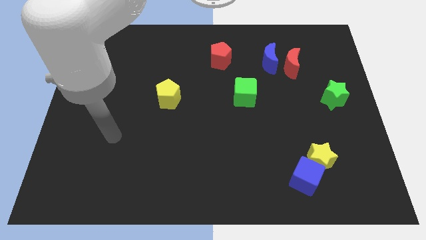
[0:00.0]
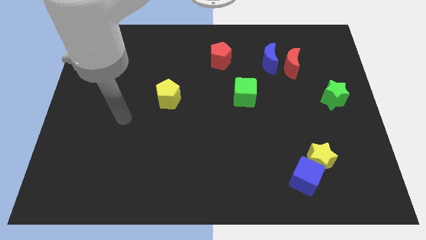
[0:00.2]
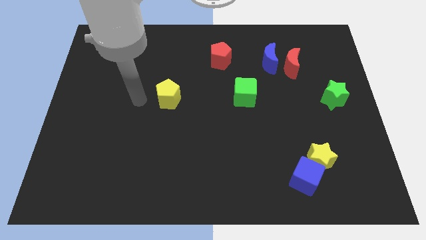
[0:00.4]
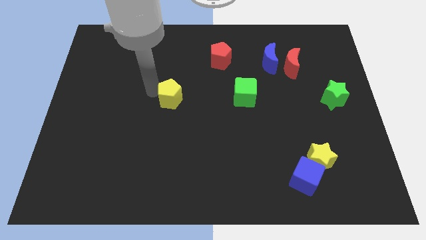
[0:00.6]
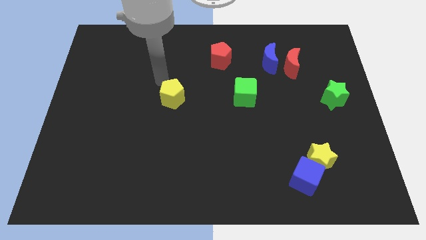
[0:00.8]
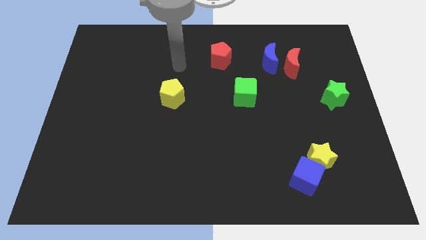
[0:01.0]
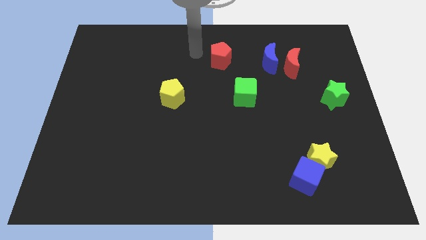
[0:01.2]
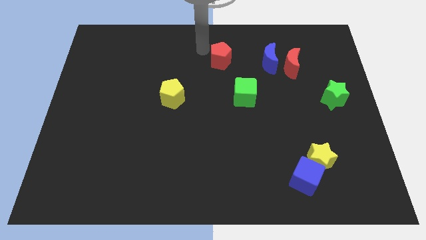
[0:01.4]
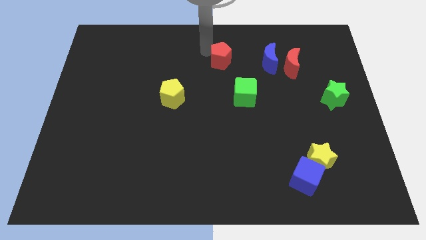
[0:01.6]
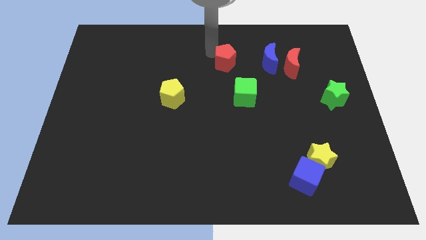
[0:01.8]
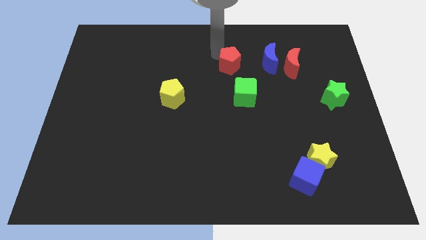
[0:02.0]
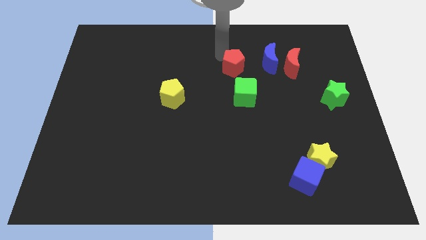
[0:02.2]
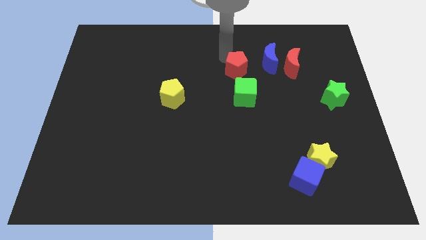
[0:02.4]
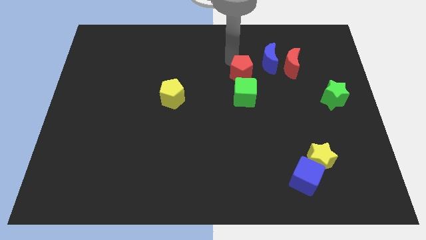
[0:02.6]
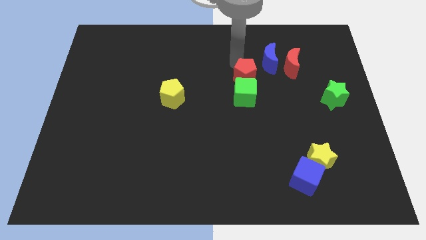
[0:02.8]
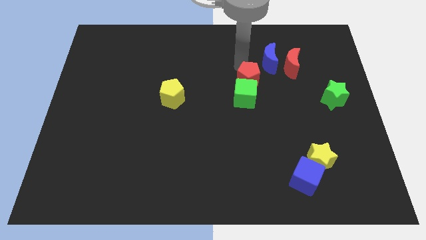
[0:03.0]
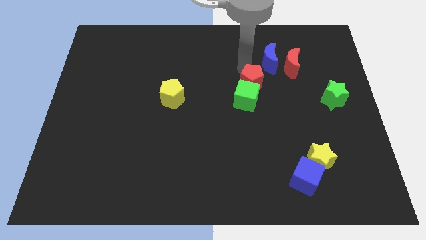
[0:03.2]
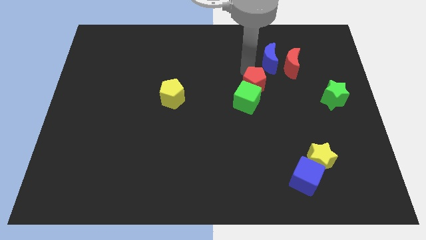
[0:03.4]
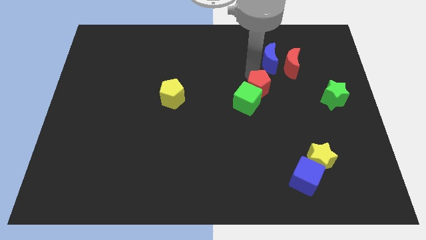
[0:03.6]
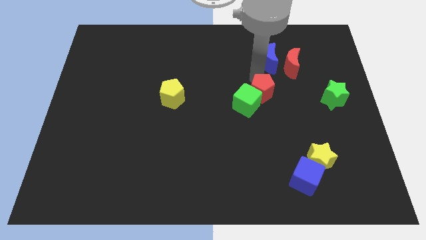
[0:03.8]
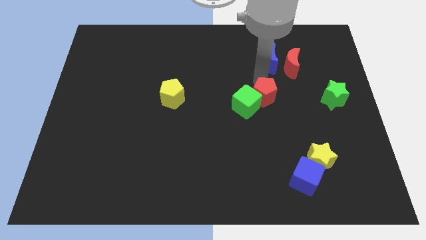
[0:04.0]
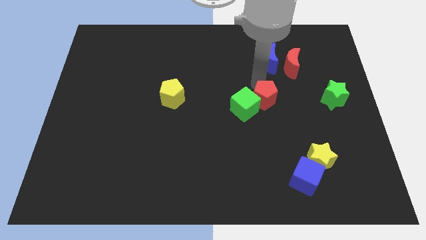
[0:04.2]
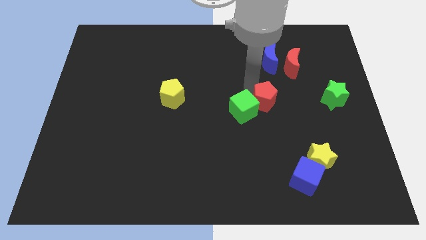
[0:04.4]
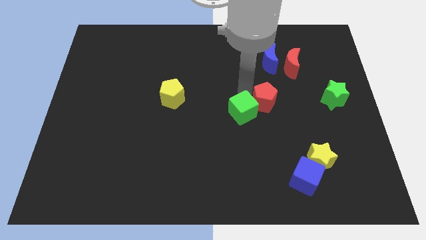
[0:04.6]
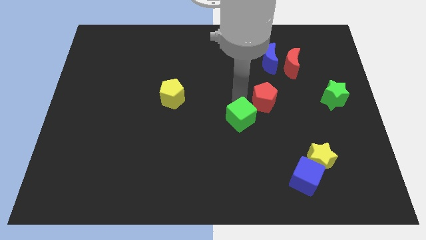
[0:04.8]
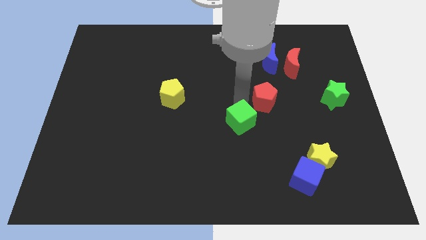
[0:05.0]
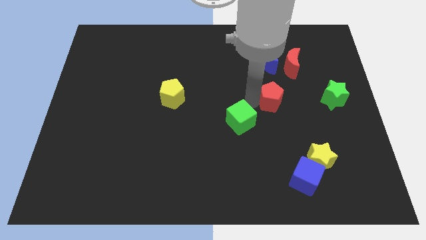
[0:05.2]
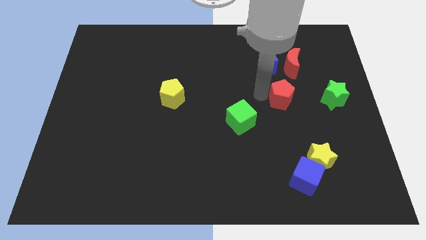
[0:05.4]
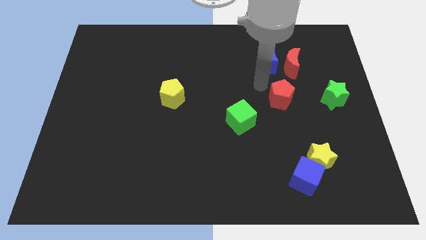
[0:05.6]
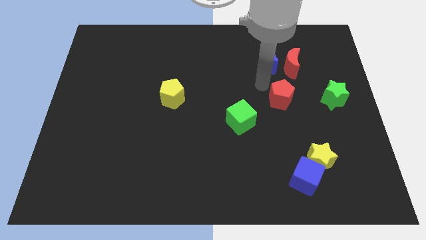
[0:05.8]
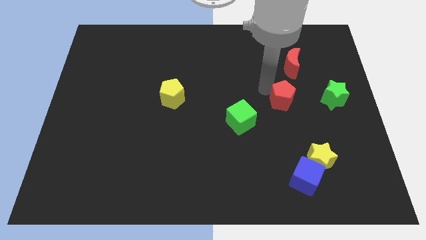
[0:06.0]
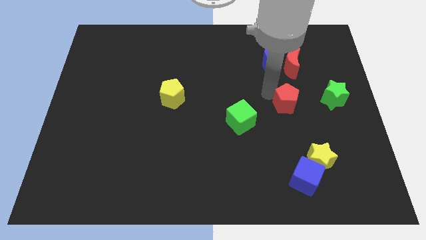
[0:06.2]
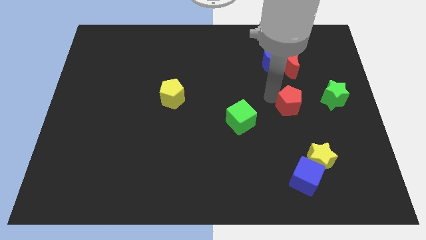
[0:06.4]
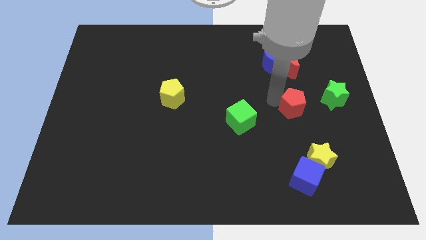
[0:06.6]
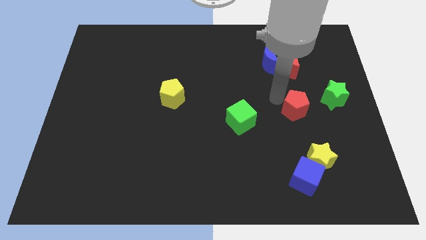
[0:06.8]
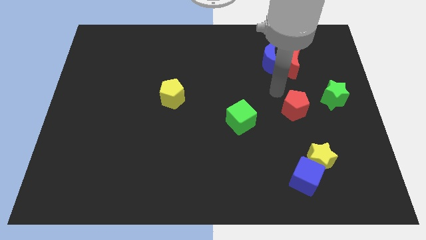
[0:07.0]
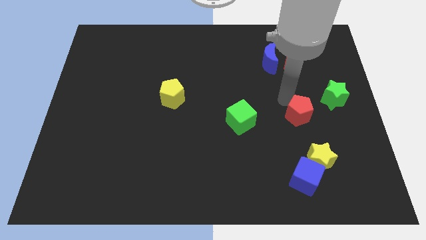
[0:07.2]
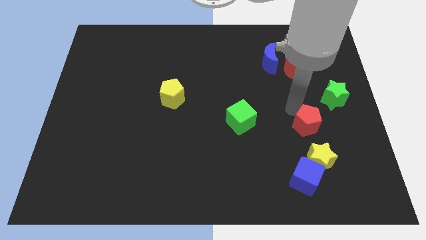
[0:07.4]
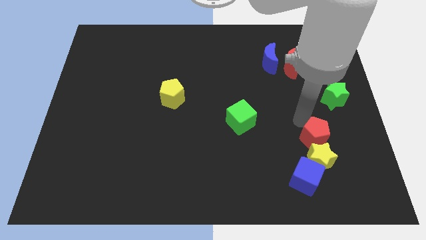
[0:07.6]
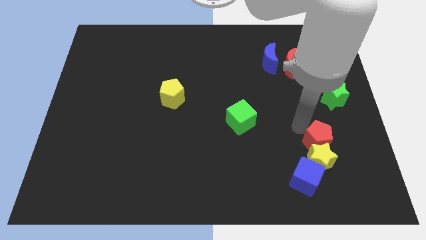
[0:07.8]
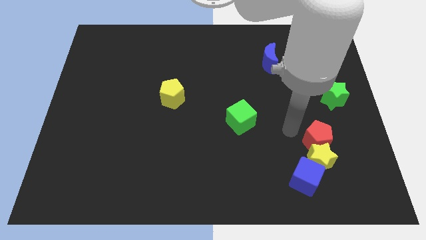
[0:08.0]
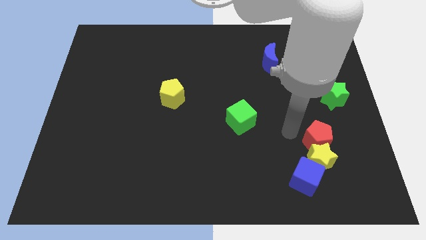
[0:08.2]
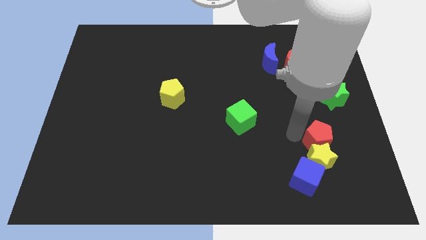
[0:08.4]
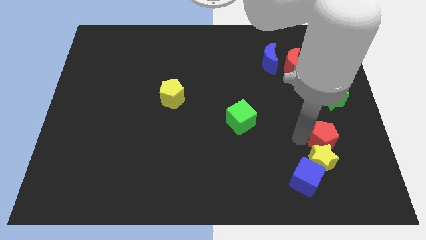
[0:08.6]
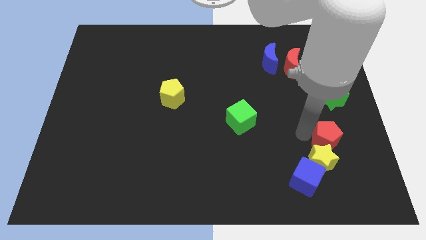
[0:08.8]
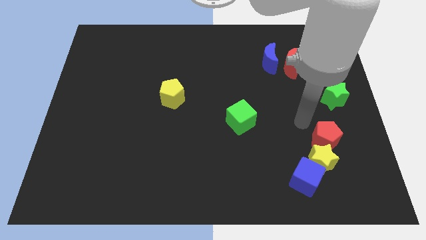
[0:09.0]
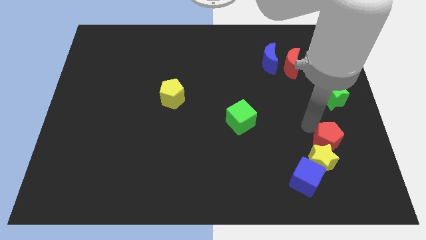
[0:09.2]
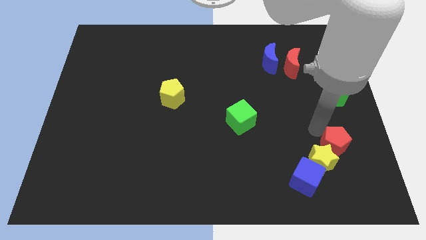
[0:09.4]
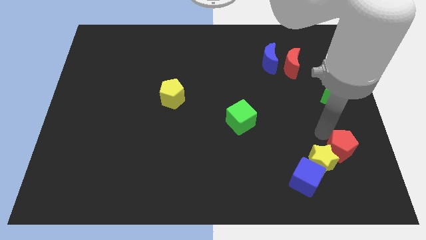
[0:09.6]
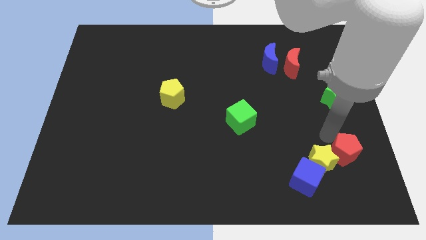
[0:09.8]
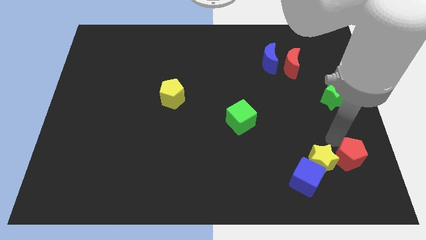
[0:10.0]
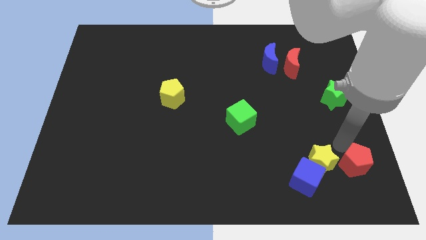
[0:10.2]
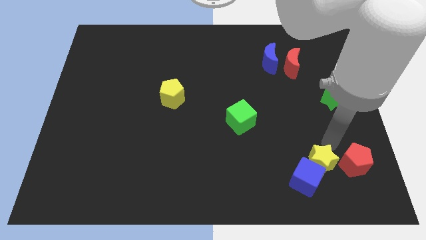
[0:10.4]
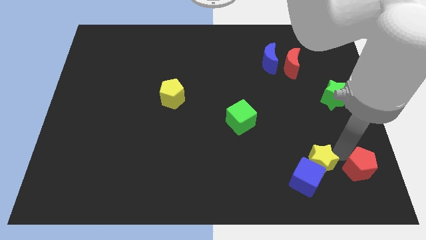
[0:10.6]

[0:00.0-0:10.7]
put the red pentagon to the bottom right of the board

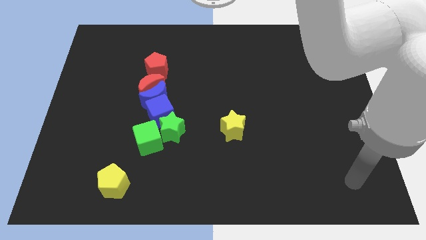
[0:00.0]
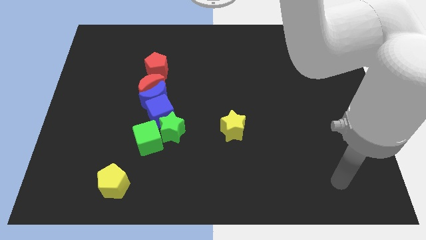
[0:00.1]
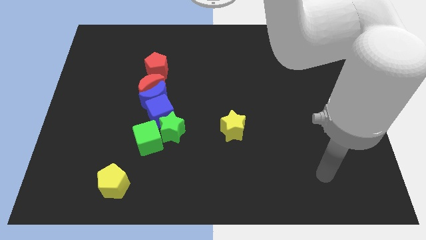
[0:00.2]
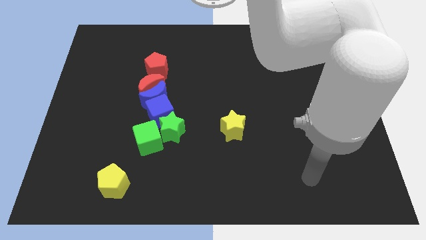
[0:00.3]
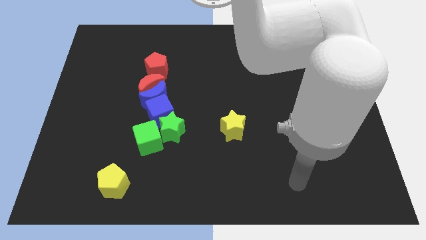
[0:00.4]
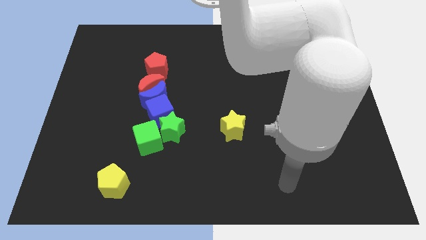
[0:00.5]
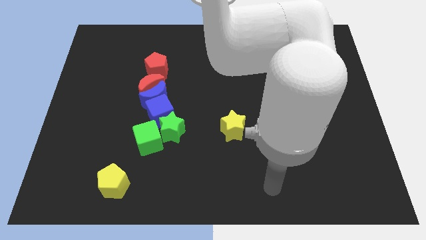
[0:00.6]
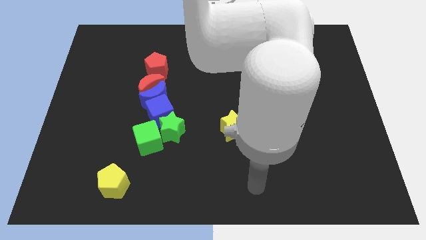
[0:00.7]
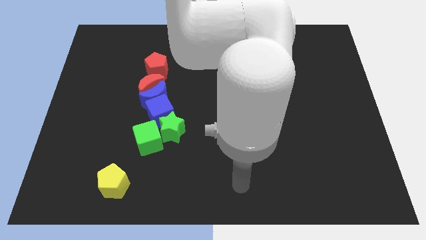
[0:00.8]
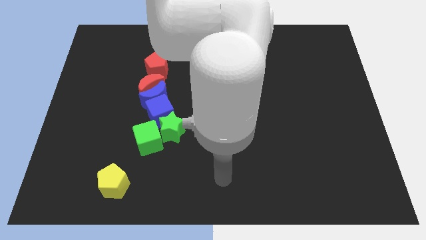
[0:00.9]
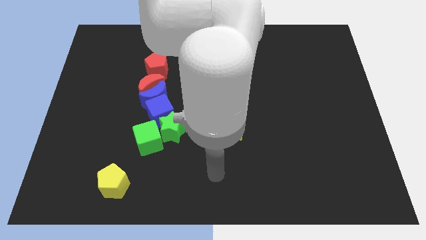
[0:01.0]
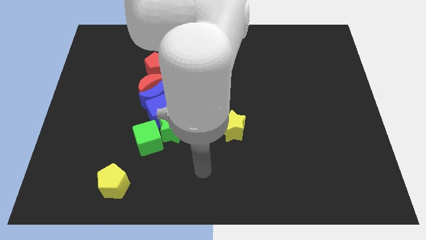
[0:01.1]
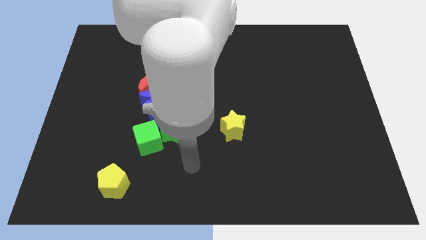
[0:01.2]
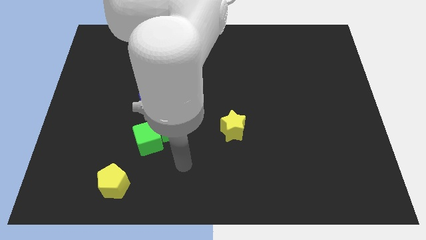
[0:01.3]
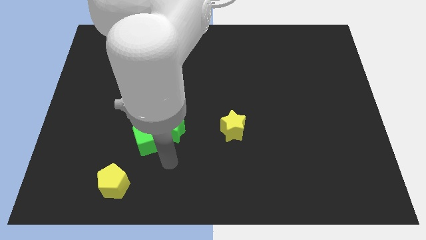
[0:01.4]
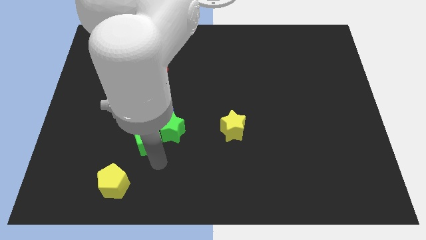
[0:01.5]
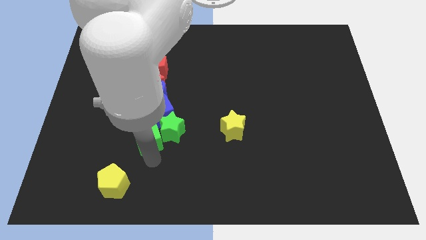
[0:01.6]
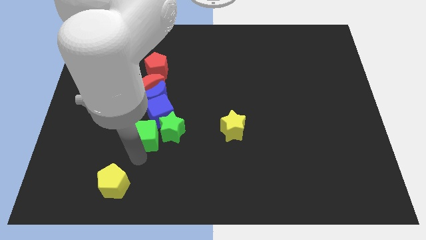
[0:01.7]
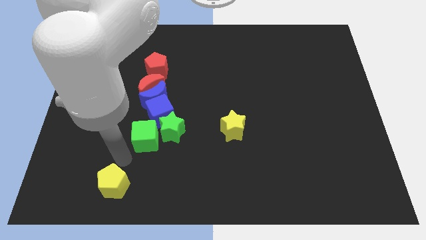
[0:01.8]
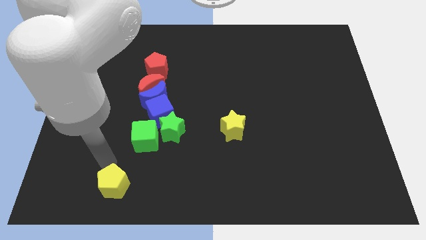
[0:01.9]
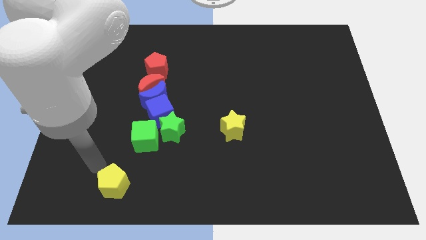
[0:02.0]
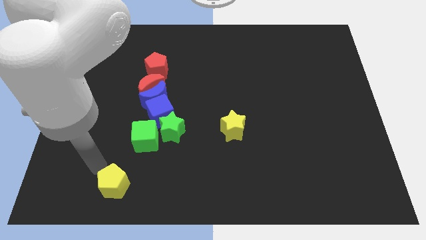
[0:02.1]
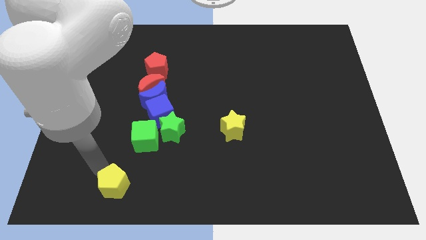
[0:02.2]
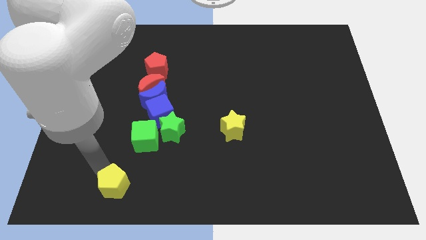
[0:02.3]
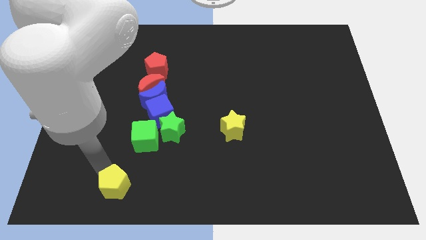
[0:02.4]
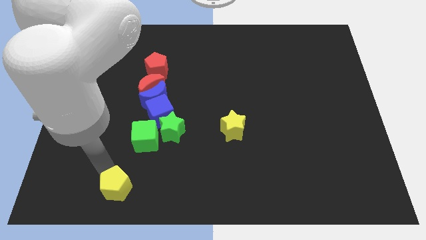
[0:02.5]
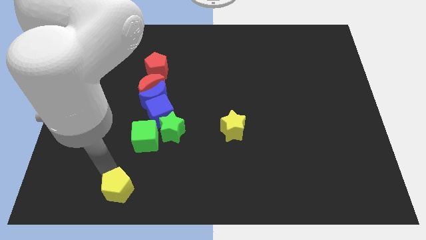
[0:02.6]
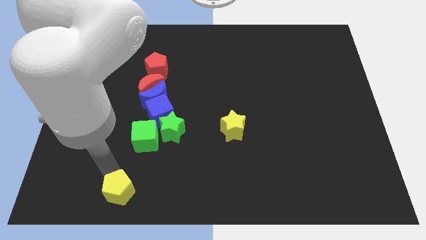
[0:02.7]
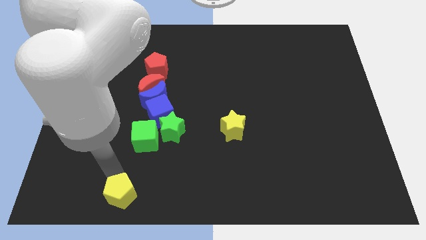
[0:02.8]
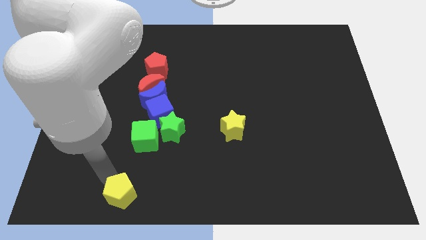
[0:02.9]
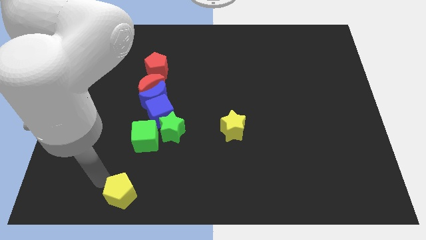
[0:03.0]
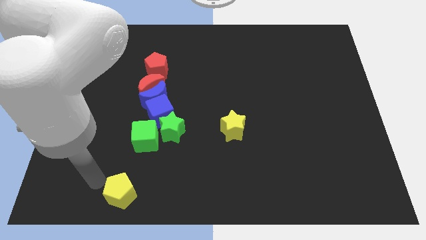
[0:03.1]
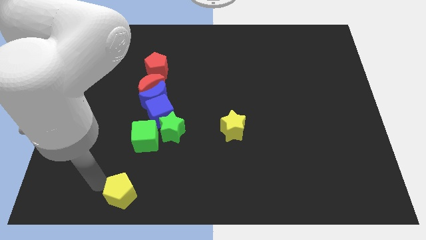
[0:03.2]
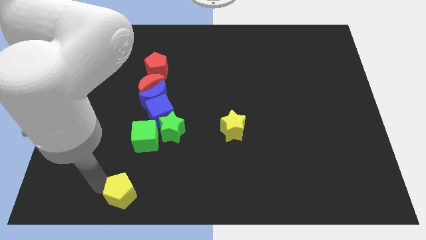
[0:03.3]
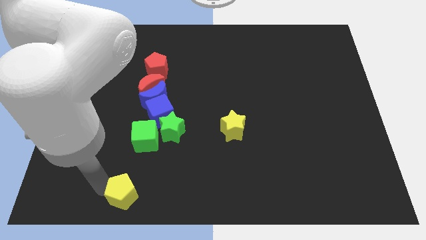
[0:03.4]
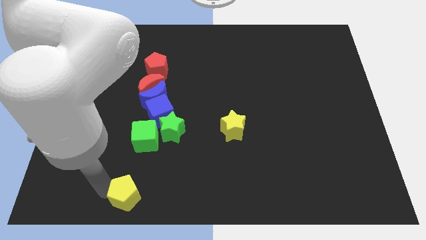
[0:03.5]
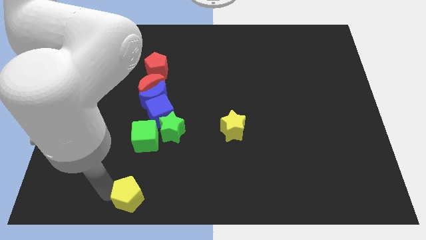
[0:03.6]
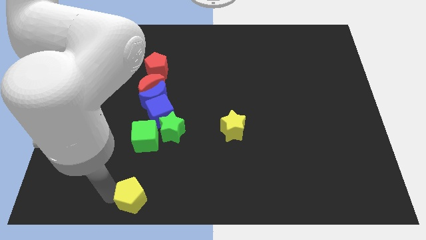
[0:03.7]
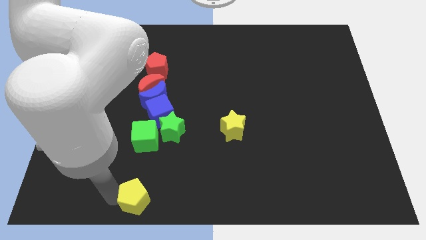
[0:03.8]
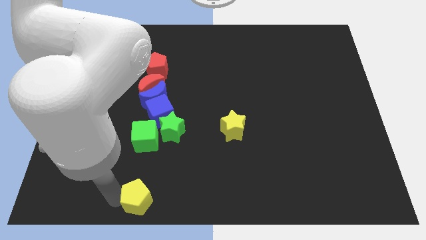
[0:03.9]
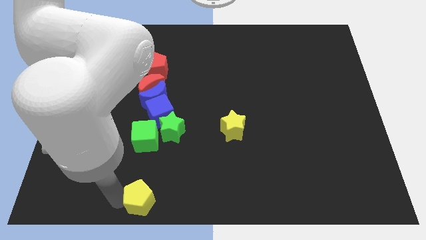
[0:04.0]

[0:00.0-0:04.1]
slide the yellow pentagon to the bottom
